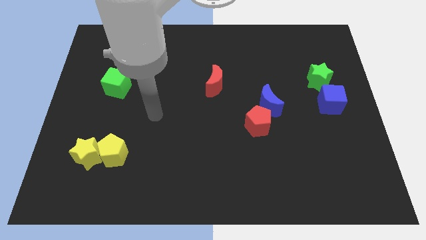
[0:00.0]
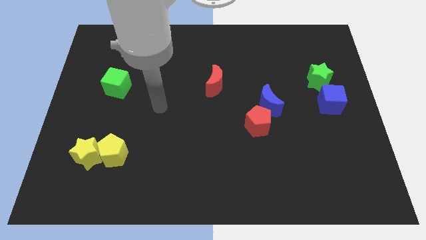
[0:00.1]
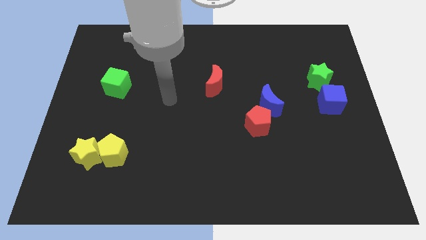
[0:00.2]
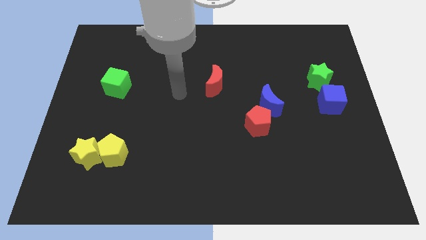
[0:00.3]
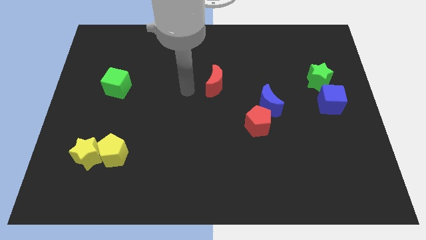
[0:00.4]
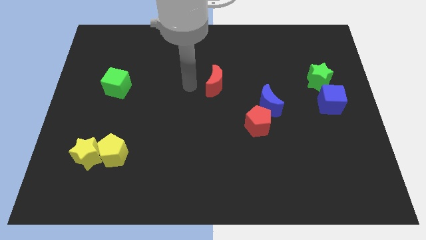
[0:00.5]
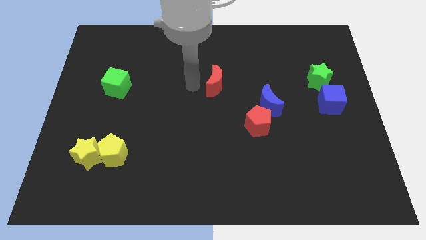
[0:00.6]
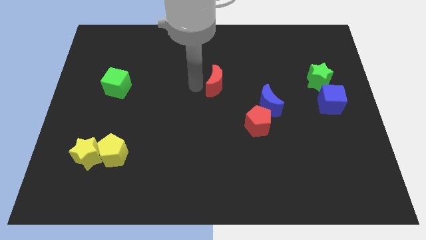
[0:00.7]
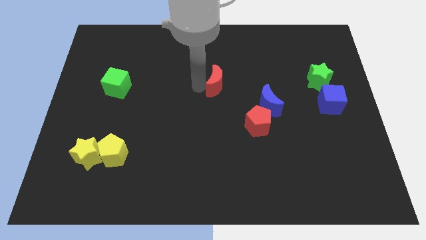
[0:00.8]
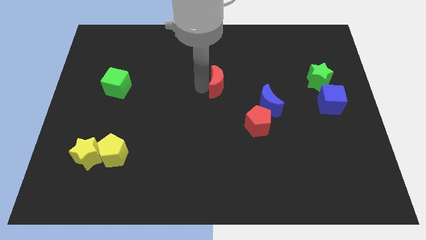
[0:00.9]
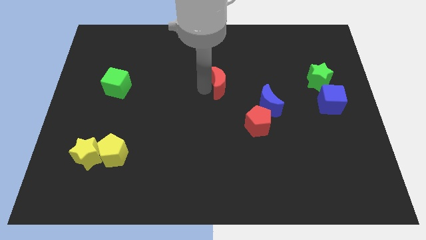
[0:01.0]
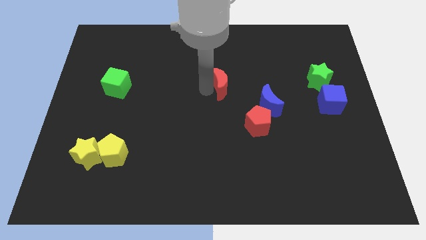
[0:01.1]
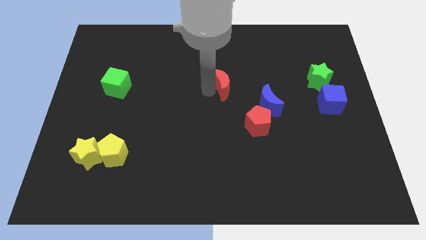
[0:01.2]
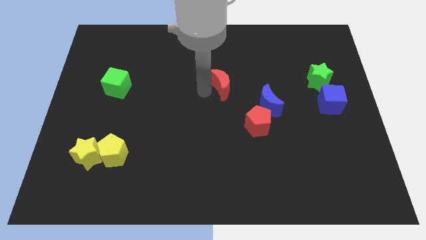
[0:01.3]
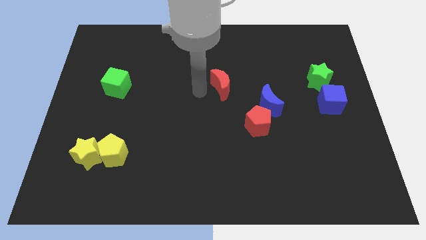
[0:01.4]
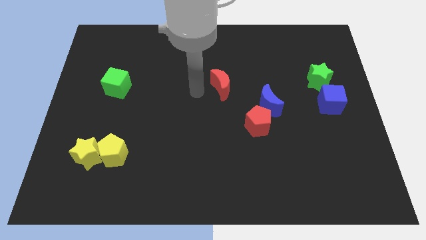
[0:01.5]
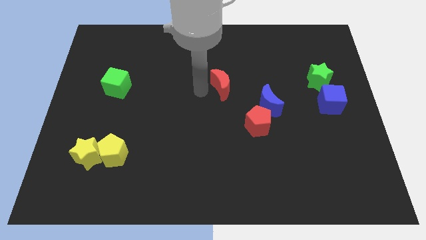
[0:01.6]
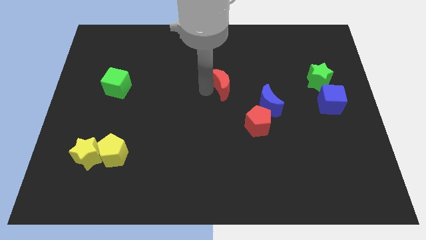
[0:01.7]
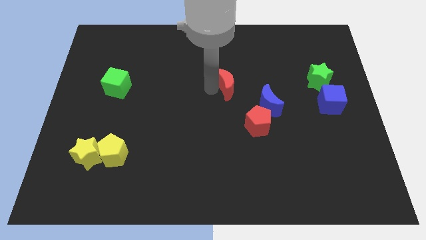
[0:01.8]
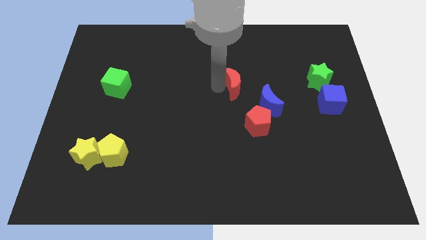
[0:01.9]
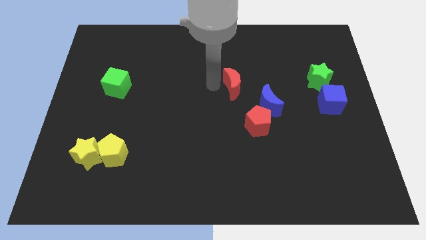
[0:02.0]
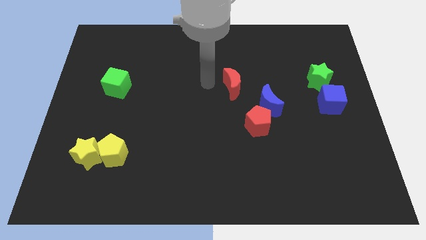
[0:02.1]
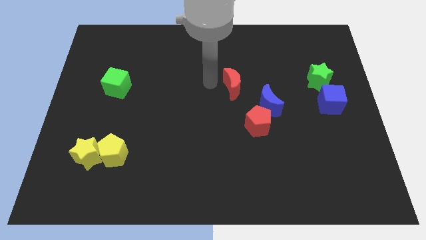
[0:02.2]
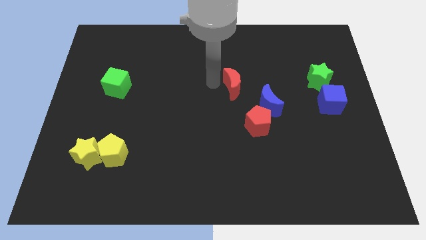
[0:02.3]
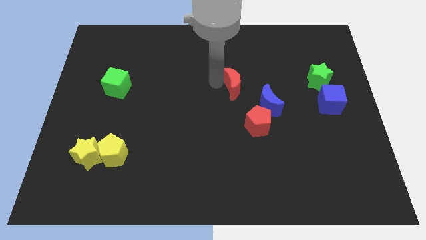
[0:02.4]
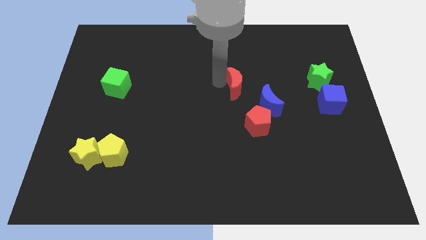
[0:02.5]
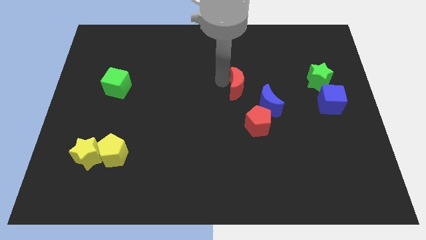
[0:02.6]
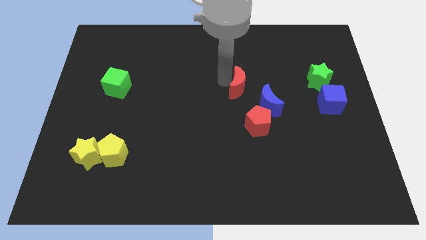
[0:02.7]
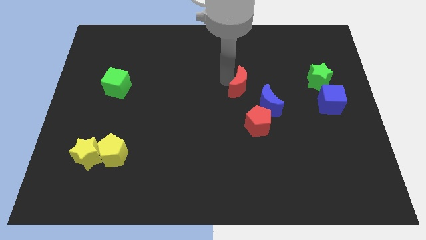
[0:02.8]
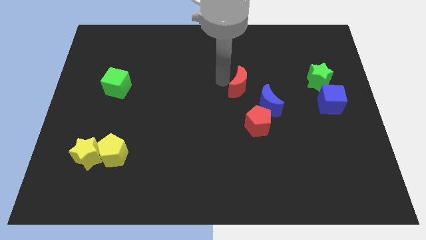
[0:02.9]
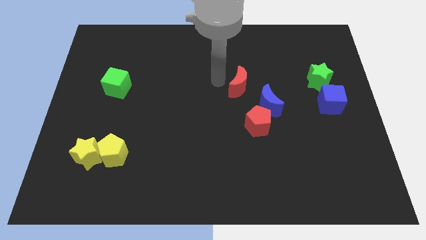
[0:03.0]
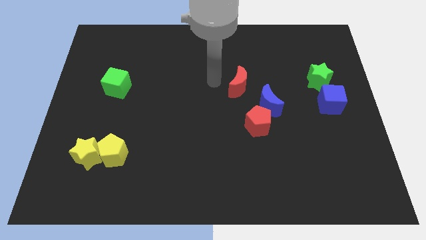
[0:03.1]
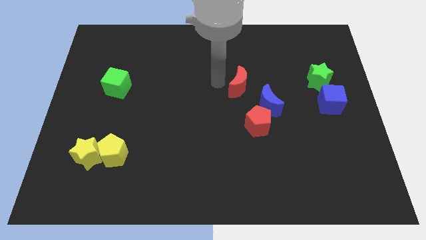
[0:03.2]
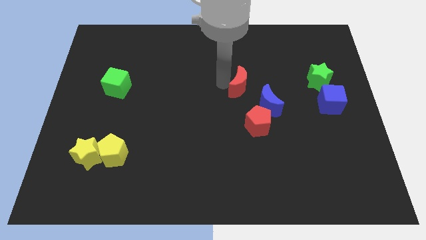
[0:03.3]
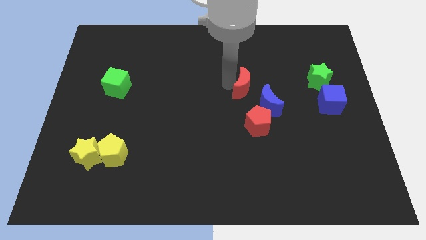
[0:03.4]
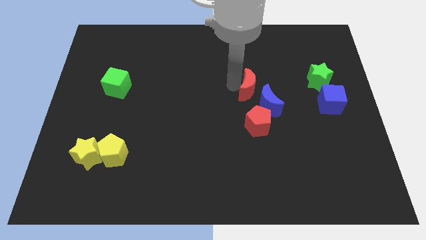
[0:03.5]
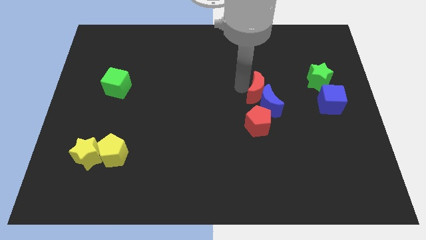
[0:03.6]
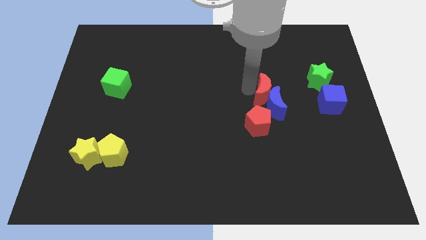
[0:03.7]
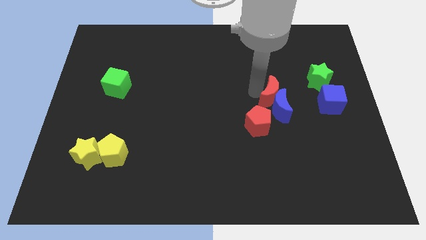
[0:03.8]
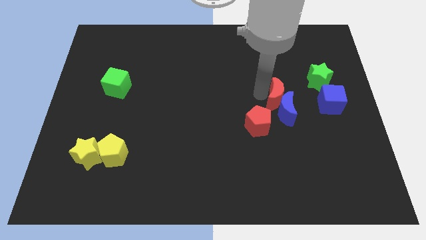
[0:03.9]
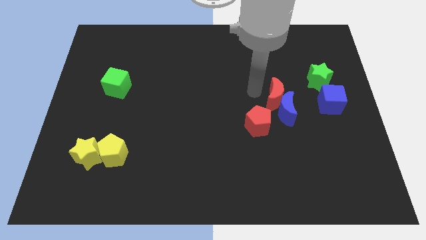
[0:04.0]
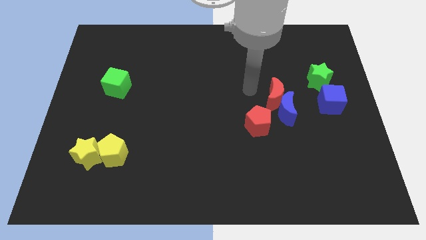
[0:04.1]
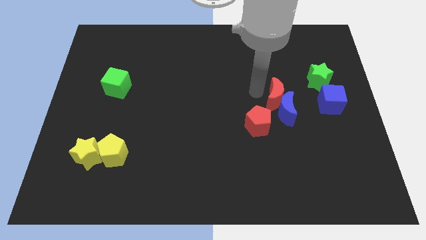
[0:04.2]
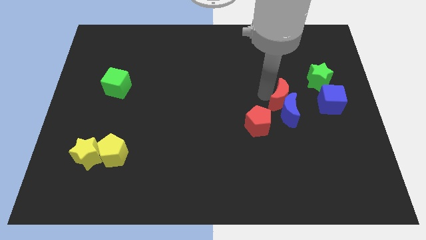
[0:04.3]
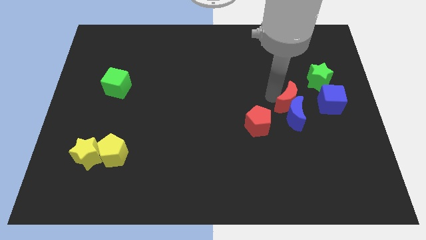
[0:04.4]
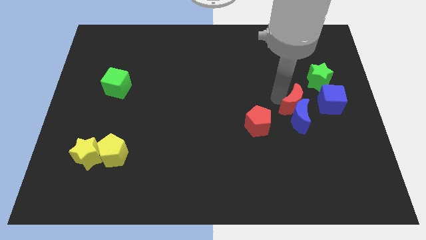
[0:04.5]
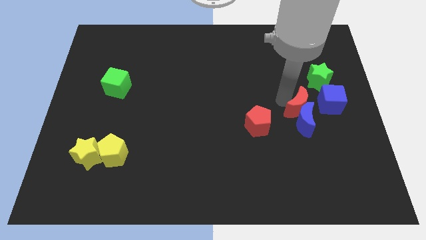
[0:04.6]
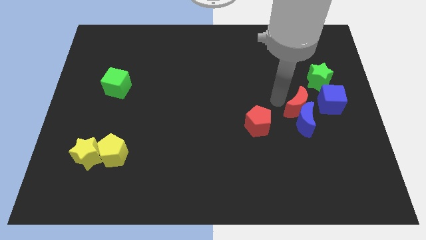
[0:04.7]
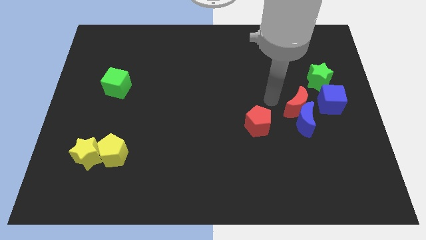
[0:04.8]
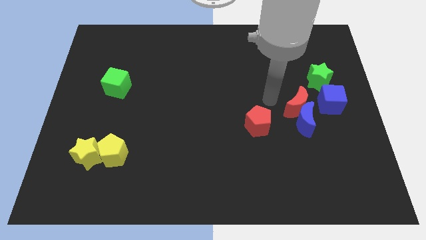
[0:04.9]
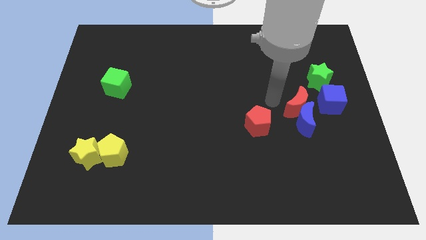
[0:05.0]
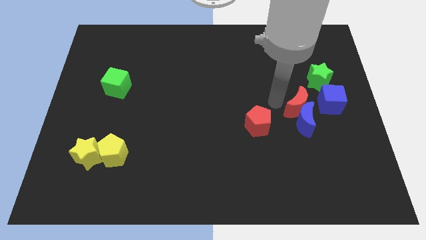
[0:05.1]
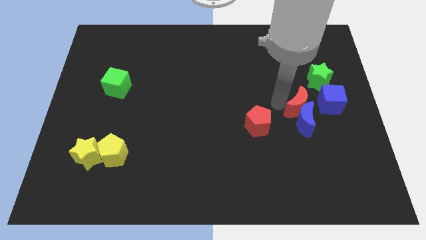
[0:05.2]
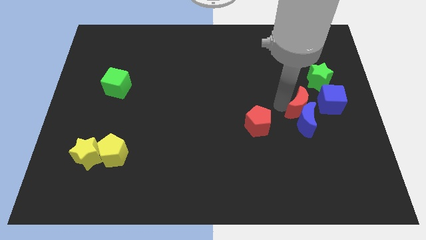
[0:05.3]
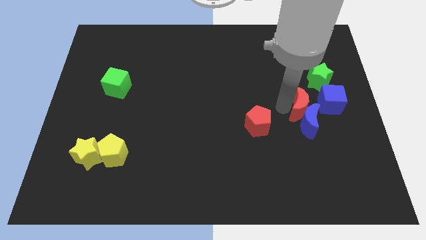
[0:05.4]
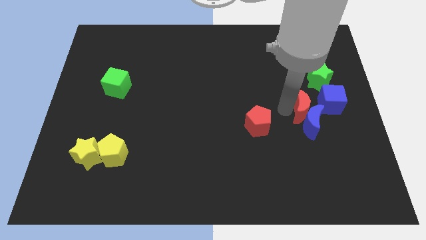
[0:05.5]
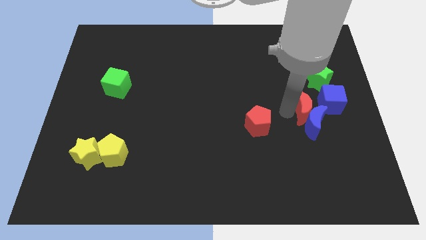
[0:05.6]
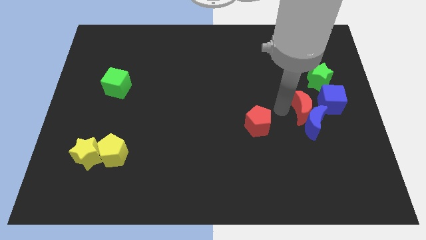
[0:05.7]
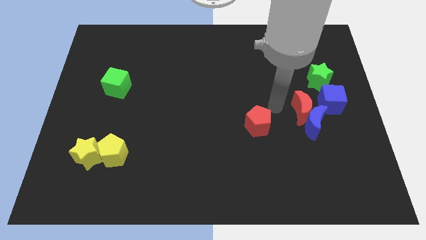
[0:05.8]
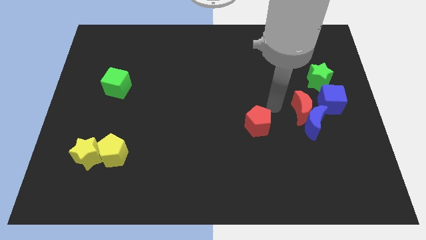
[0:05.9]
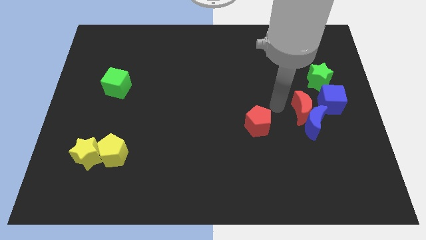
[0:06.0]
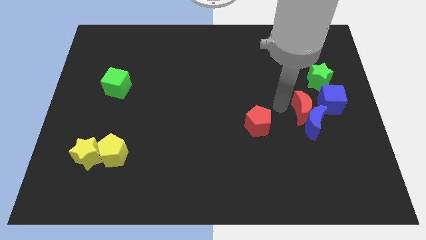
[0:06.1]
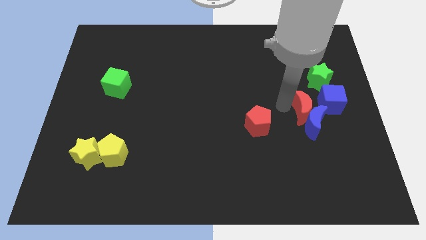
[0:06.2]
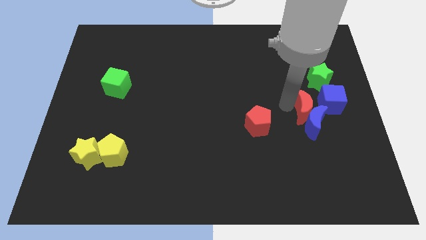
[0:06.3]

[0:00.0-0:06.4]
put the red moon below the green star
